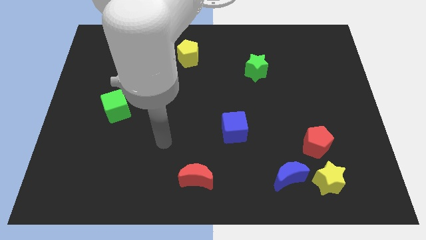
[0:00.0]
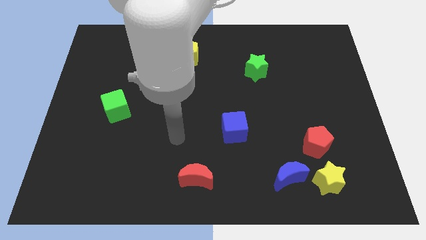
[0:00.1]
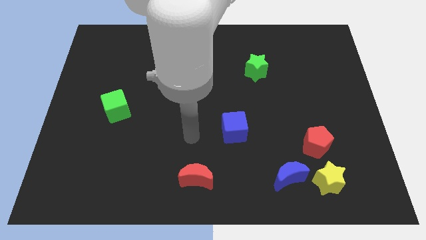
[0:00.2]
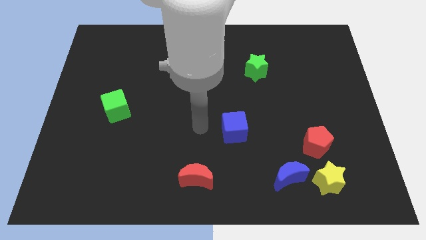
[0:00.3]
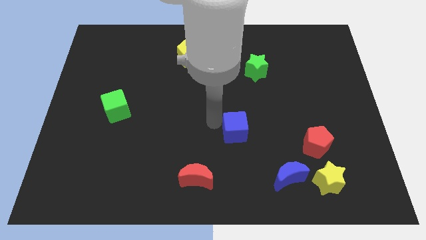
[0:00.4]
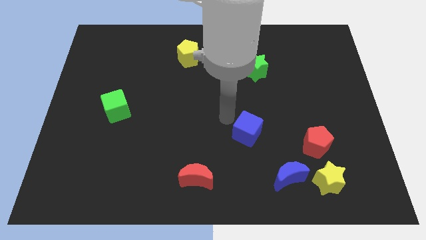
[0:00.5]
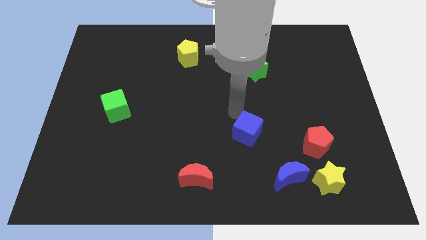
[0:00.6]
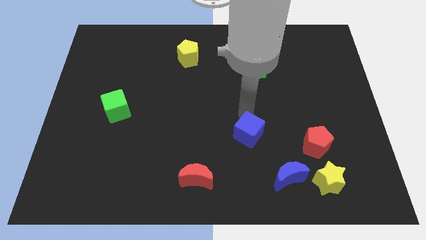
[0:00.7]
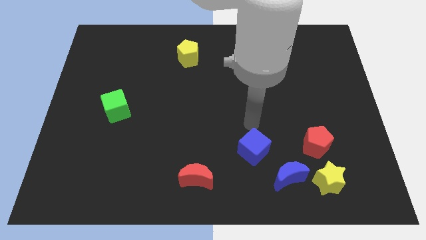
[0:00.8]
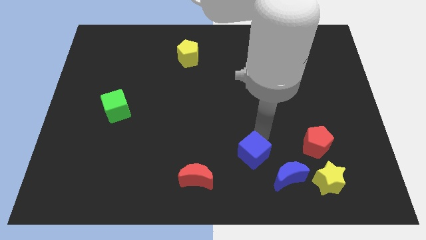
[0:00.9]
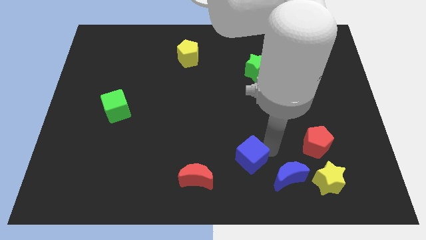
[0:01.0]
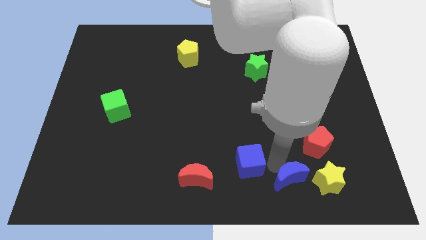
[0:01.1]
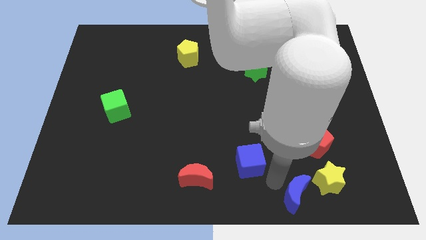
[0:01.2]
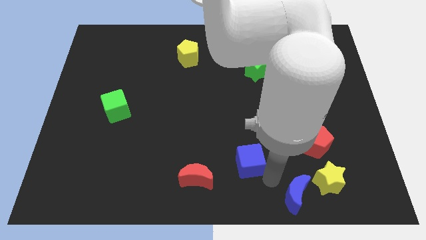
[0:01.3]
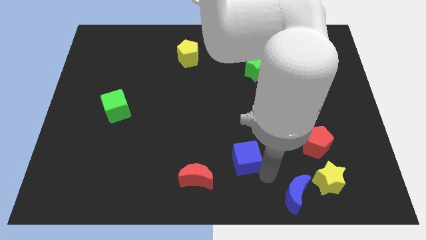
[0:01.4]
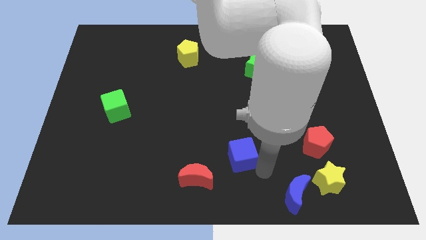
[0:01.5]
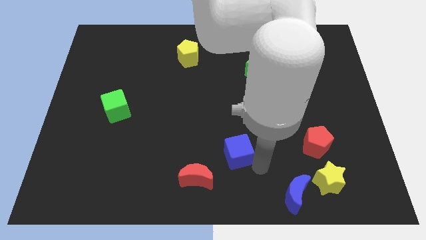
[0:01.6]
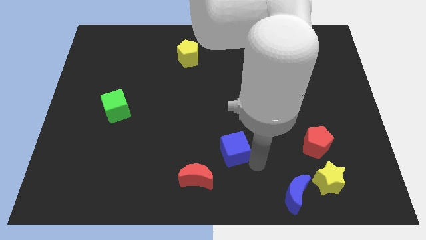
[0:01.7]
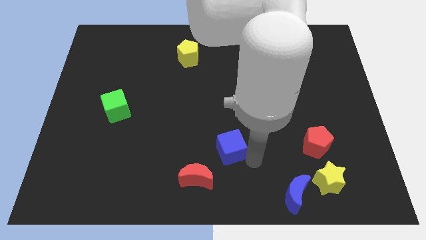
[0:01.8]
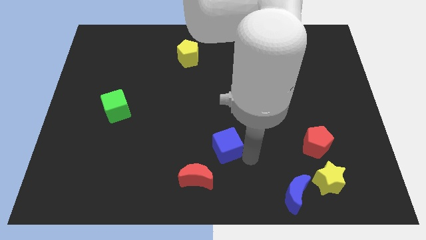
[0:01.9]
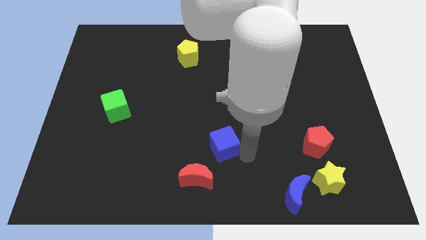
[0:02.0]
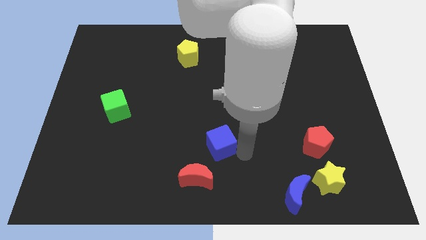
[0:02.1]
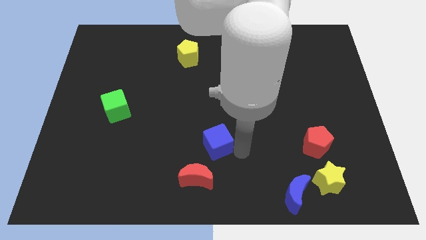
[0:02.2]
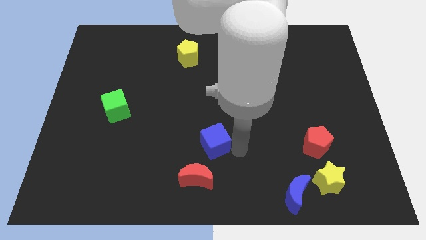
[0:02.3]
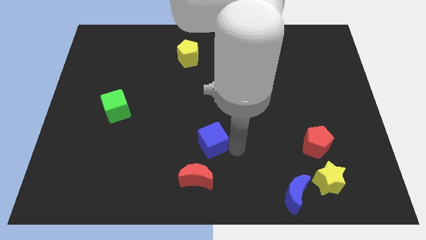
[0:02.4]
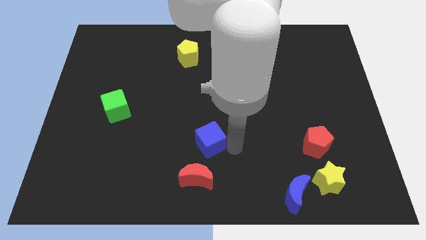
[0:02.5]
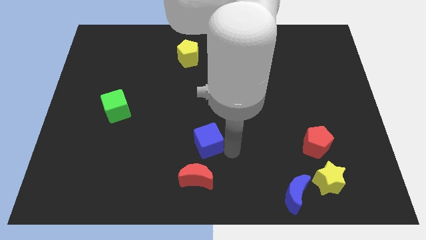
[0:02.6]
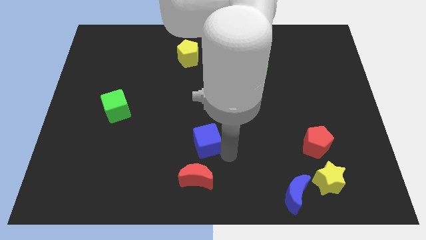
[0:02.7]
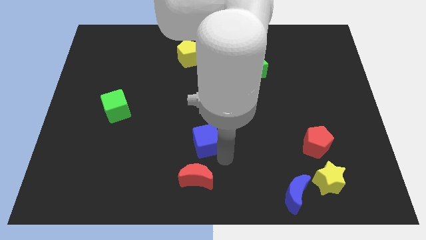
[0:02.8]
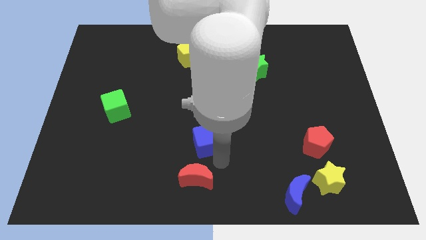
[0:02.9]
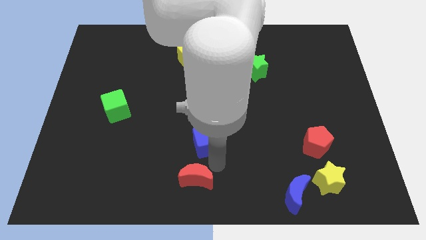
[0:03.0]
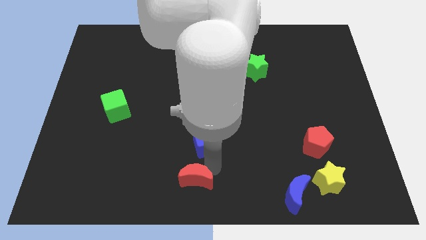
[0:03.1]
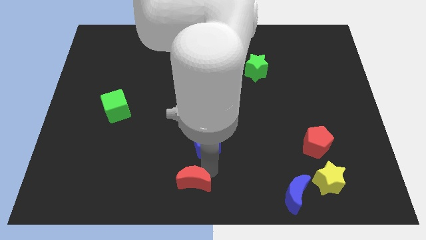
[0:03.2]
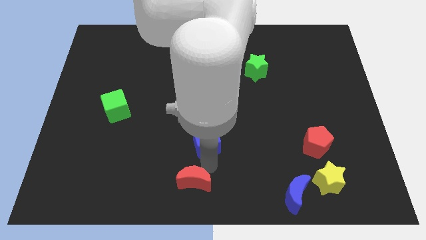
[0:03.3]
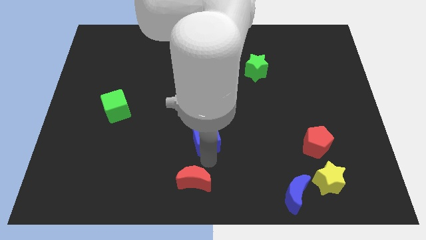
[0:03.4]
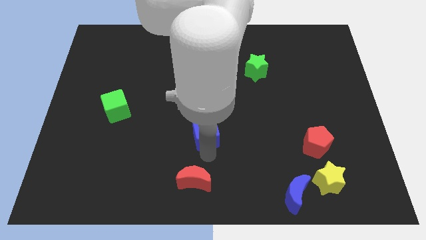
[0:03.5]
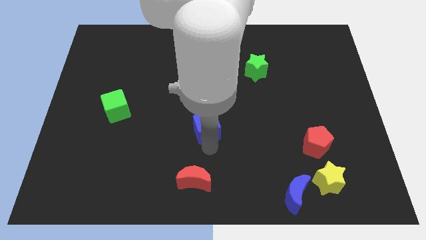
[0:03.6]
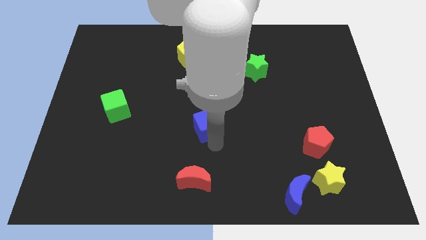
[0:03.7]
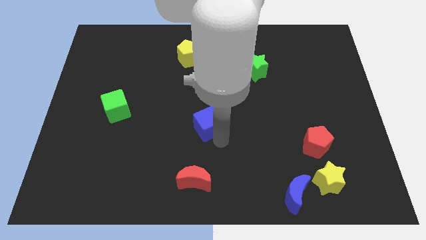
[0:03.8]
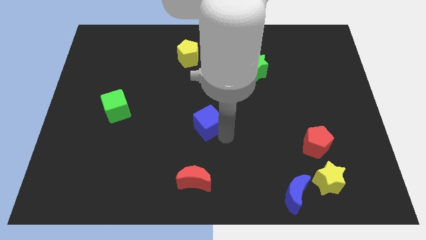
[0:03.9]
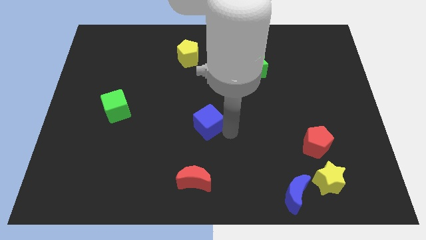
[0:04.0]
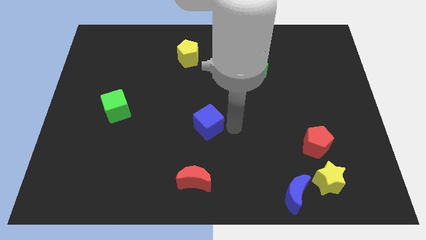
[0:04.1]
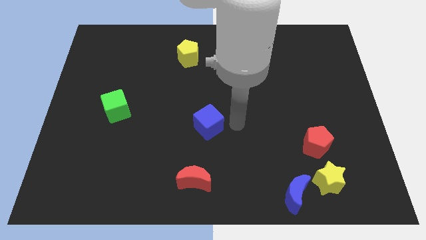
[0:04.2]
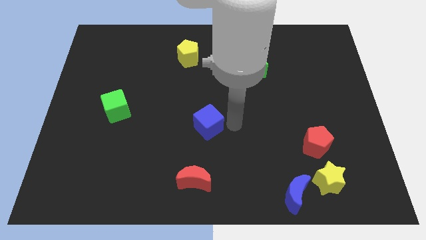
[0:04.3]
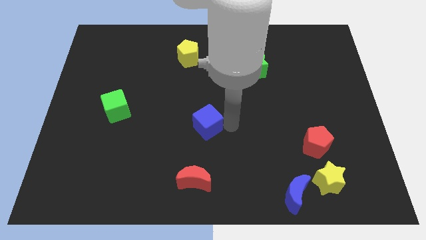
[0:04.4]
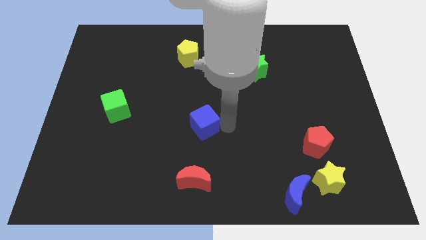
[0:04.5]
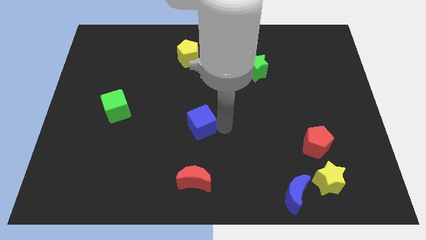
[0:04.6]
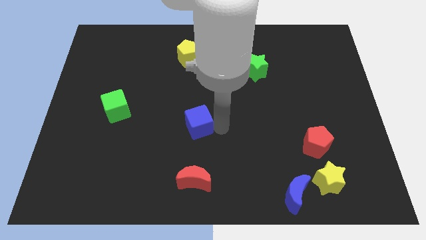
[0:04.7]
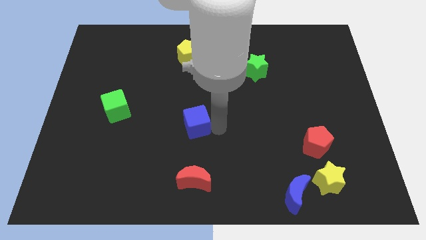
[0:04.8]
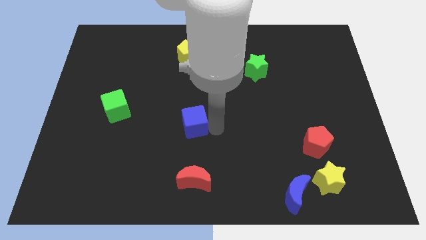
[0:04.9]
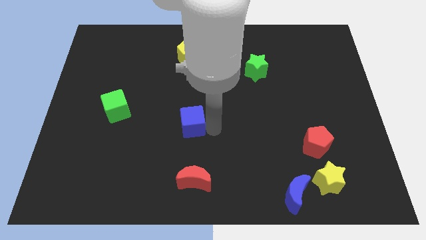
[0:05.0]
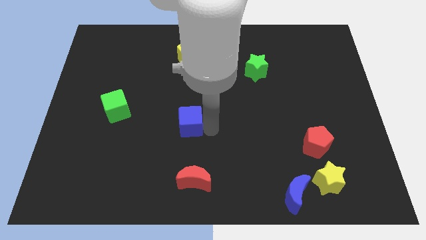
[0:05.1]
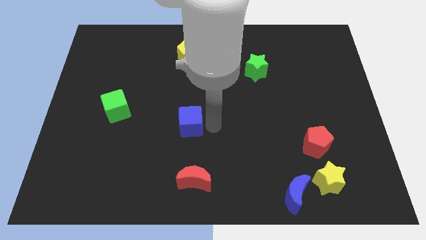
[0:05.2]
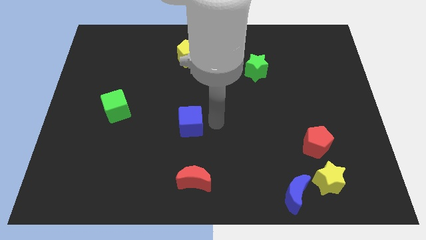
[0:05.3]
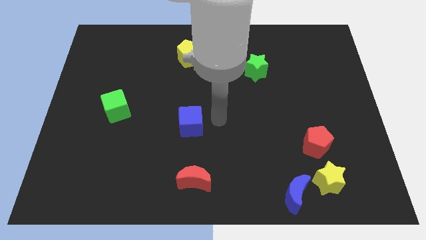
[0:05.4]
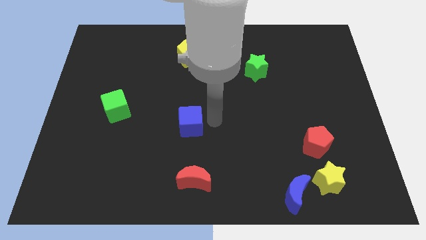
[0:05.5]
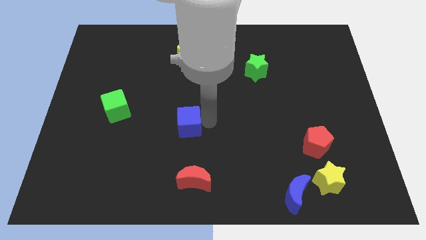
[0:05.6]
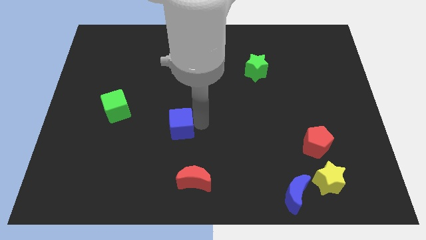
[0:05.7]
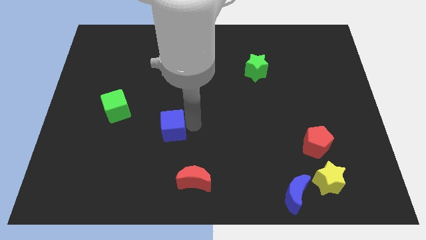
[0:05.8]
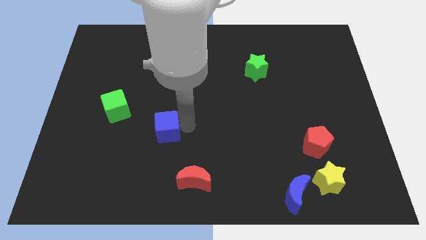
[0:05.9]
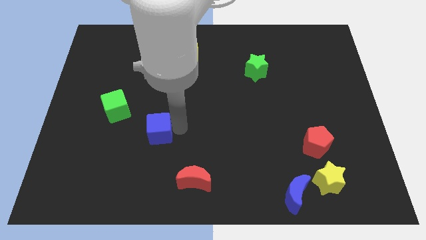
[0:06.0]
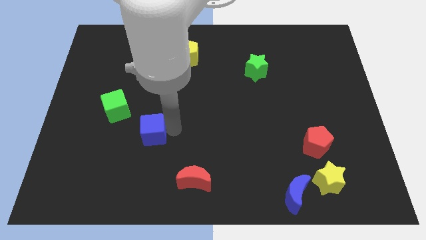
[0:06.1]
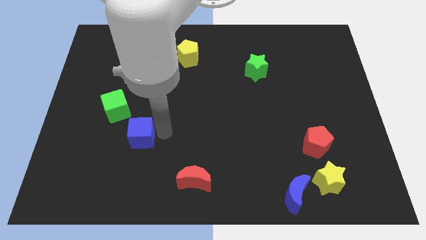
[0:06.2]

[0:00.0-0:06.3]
move the blue cube to the left

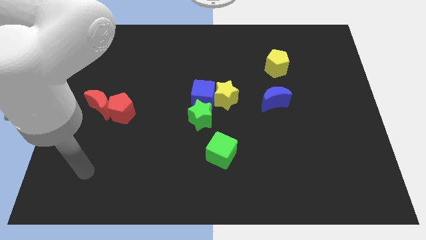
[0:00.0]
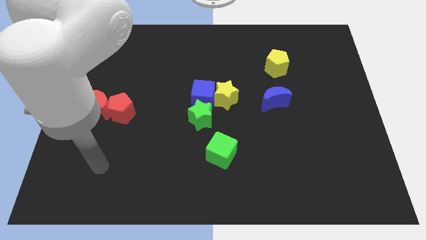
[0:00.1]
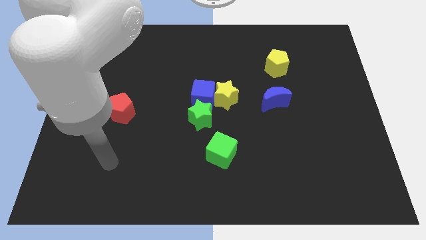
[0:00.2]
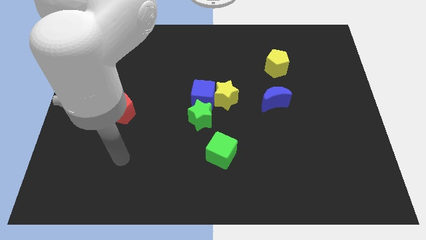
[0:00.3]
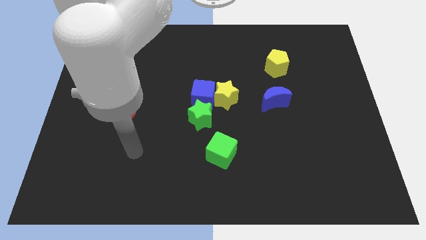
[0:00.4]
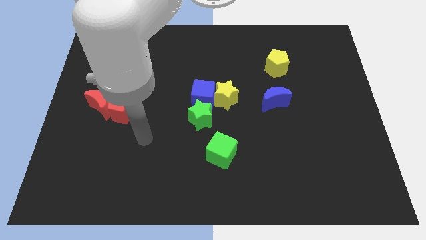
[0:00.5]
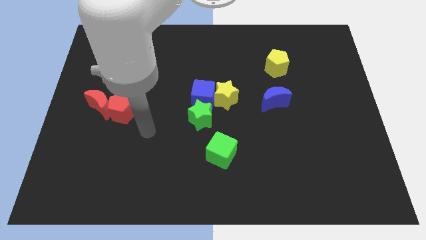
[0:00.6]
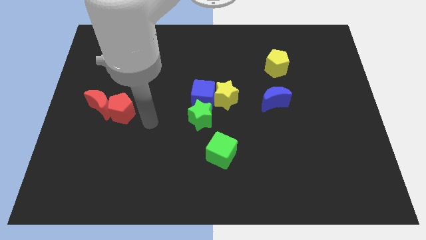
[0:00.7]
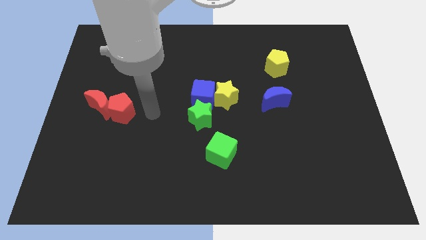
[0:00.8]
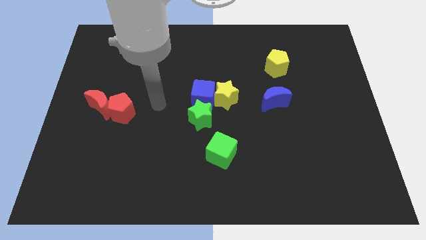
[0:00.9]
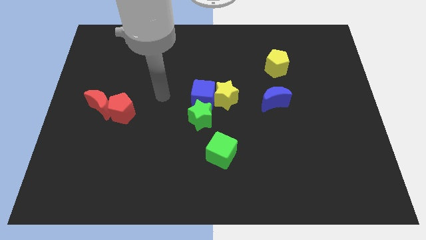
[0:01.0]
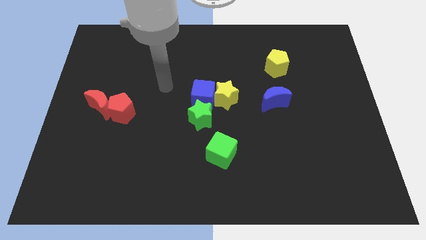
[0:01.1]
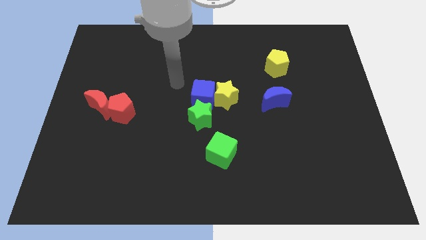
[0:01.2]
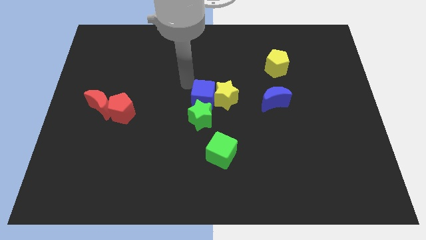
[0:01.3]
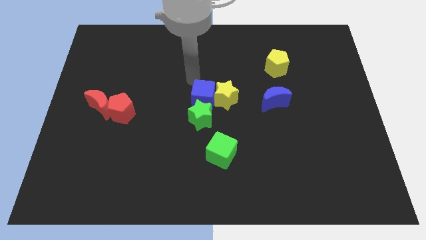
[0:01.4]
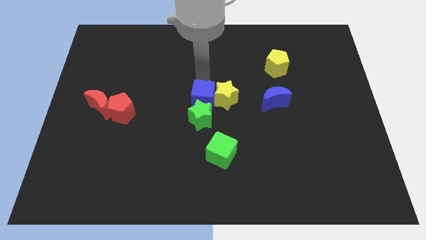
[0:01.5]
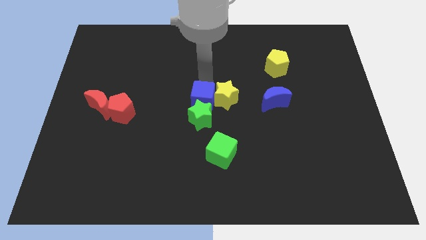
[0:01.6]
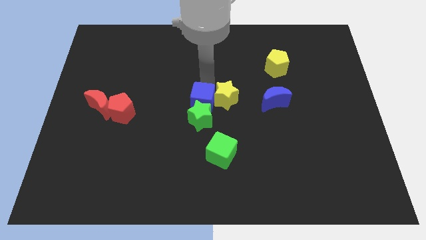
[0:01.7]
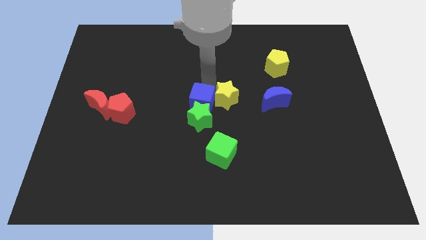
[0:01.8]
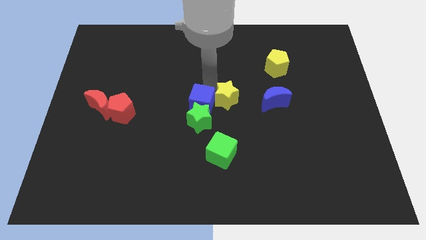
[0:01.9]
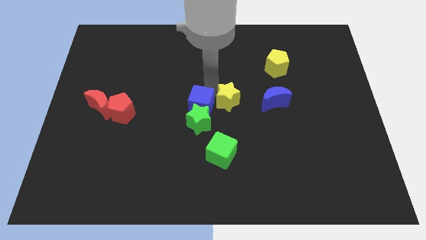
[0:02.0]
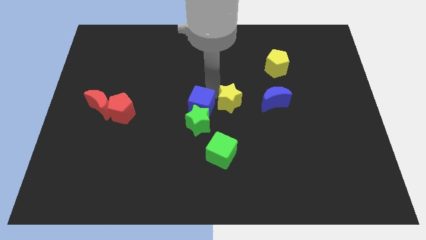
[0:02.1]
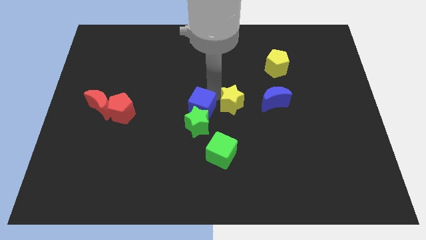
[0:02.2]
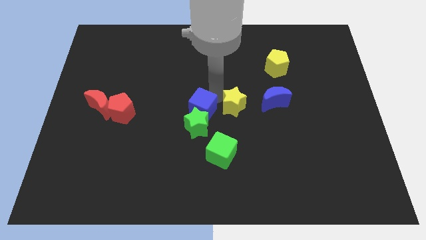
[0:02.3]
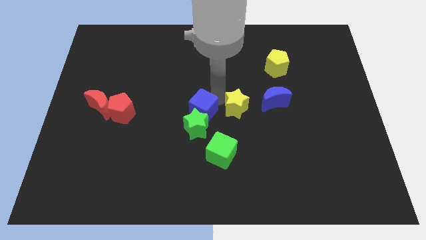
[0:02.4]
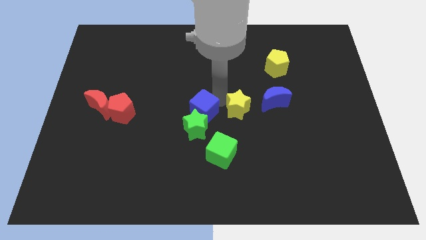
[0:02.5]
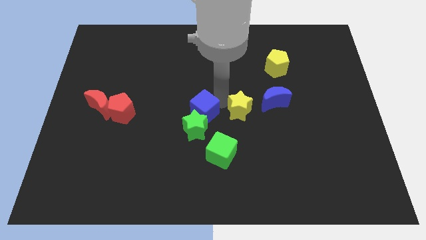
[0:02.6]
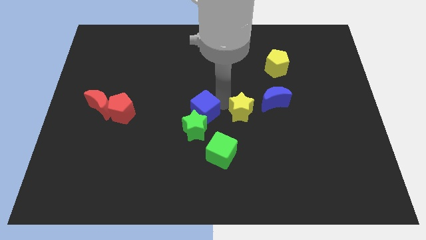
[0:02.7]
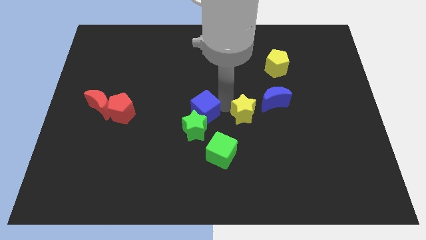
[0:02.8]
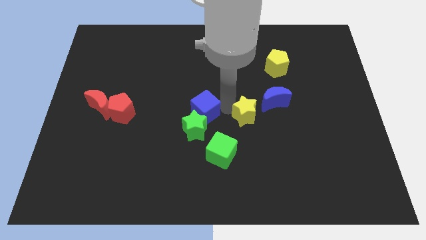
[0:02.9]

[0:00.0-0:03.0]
push the yellow star down and to the right a bit
